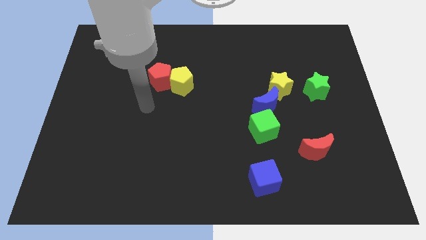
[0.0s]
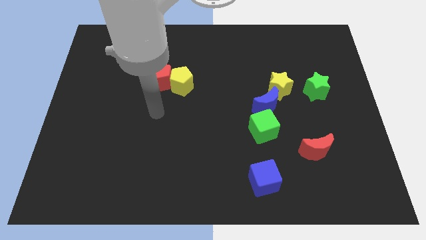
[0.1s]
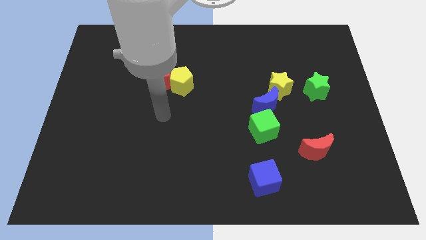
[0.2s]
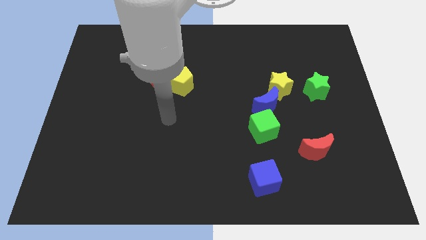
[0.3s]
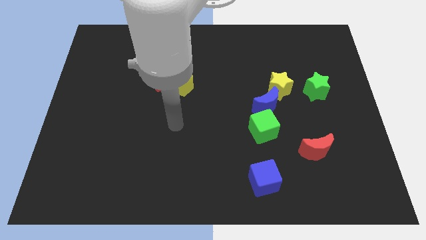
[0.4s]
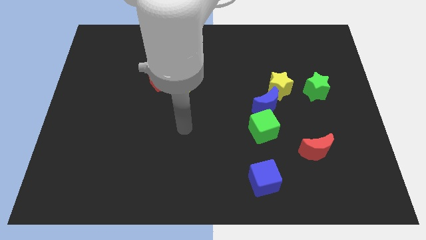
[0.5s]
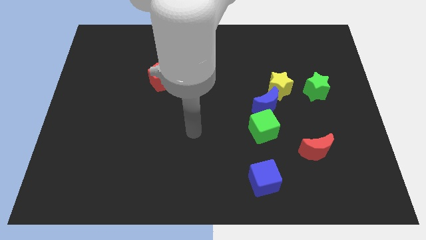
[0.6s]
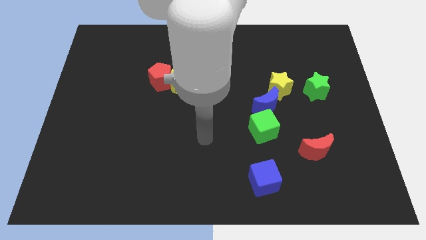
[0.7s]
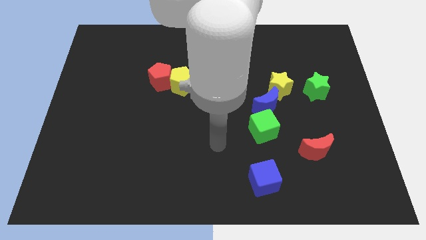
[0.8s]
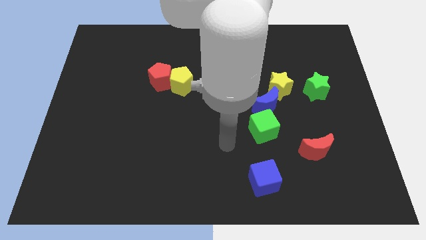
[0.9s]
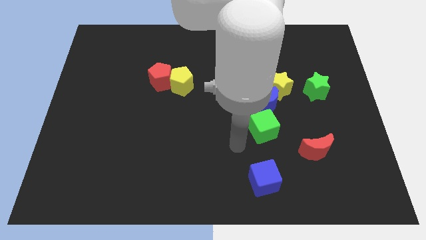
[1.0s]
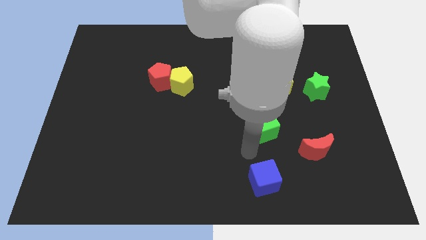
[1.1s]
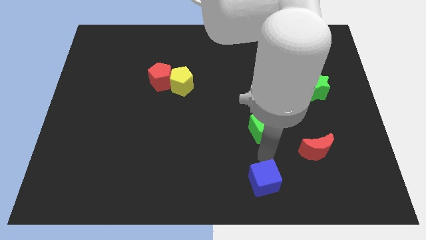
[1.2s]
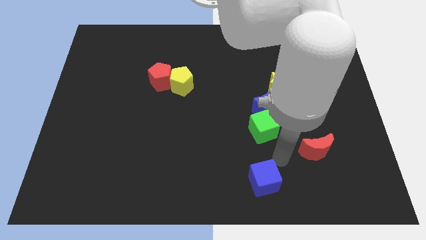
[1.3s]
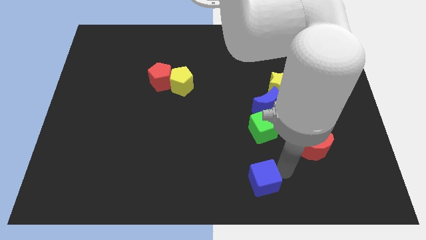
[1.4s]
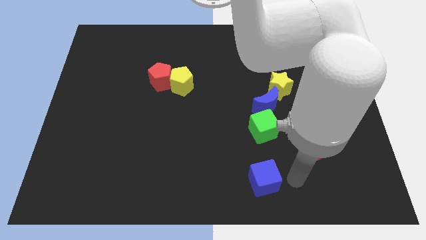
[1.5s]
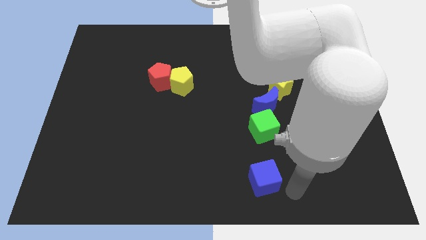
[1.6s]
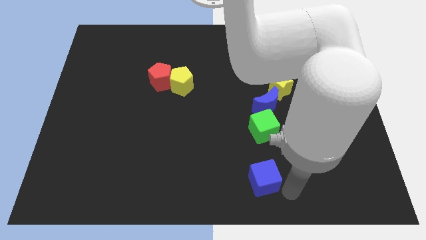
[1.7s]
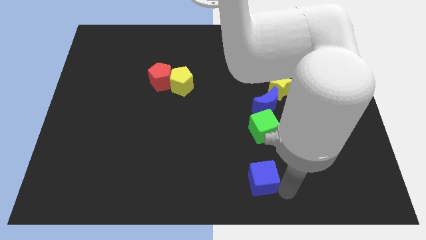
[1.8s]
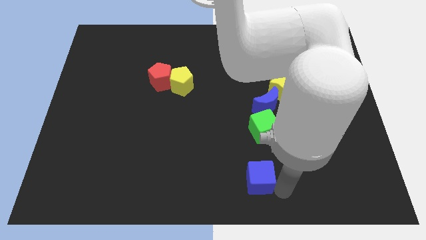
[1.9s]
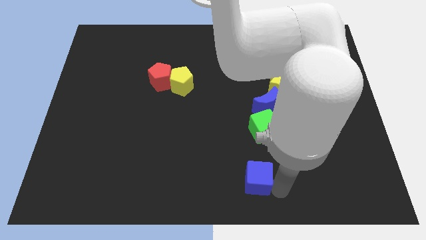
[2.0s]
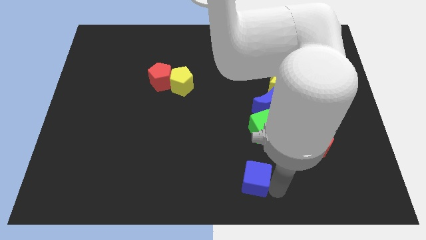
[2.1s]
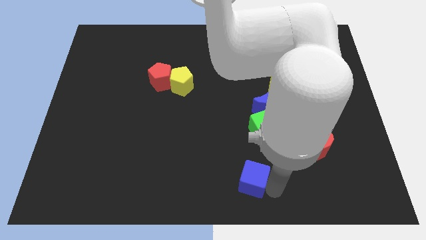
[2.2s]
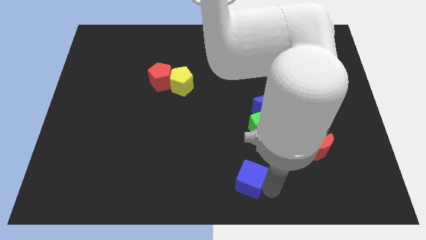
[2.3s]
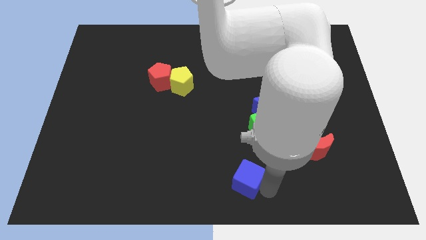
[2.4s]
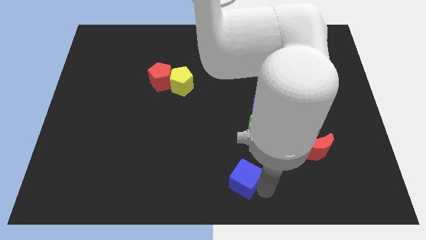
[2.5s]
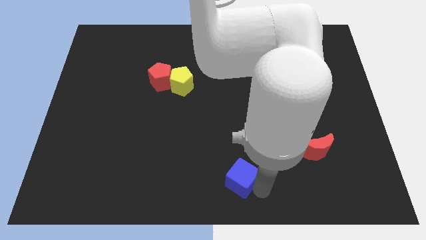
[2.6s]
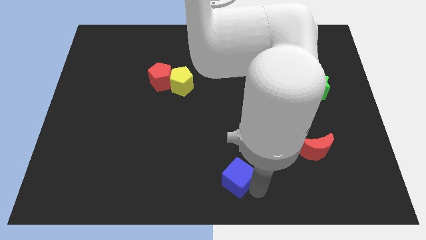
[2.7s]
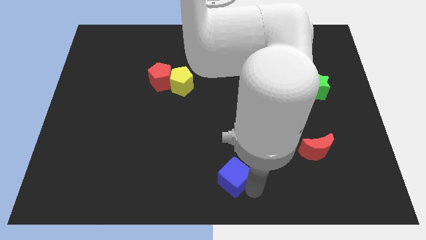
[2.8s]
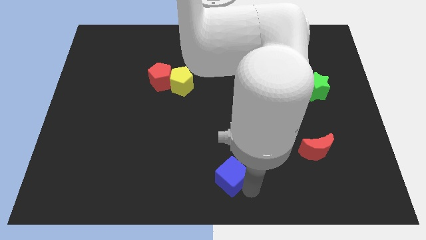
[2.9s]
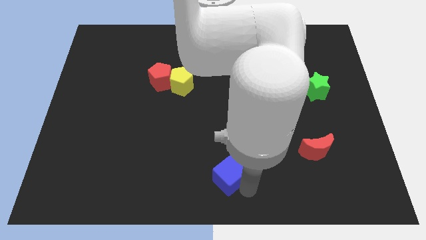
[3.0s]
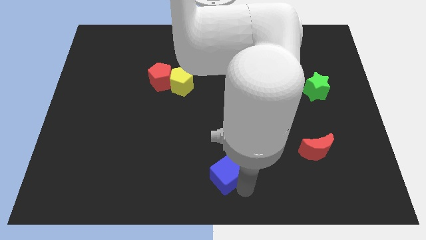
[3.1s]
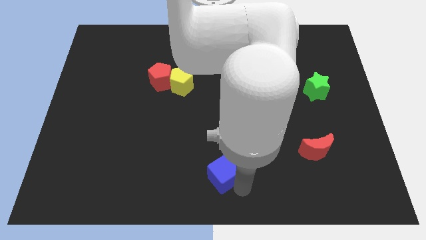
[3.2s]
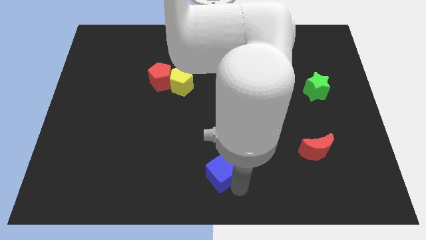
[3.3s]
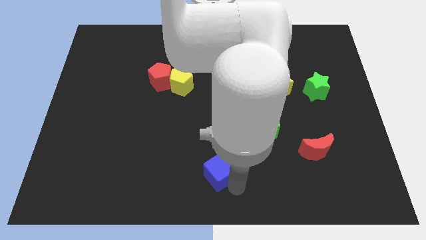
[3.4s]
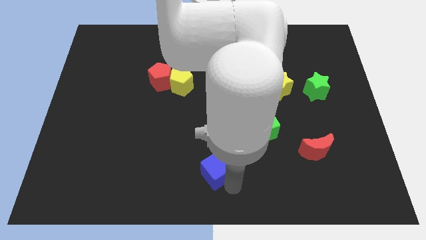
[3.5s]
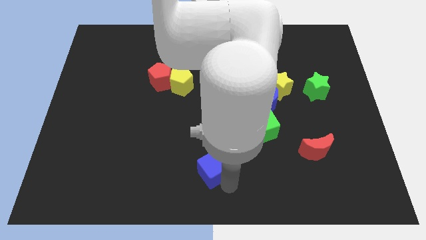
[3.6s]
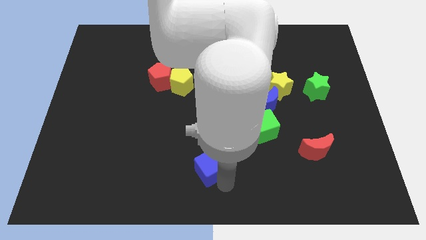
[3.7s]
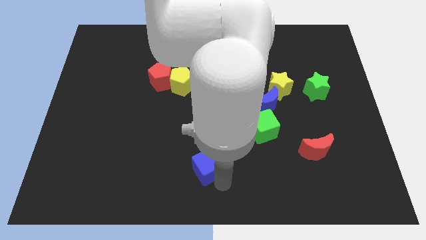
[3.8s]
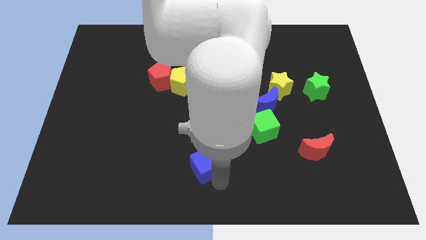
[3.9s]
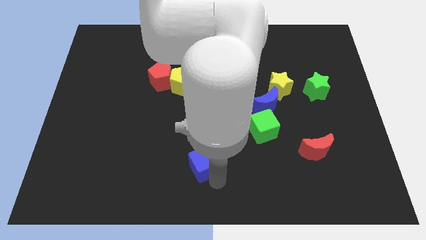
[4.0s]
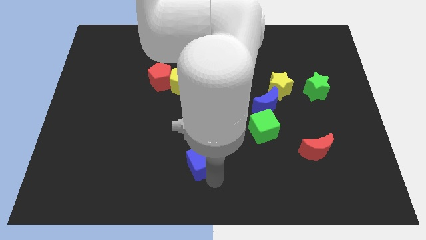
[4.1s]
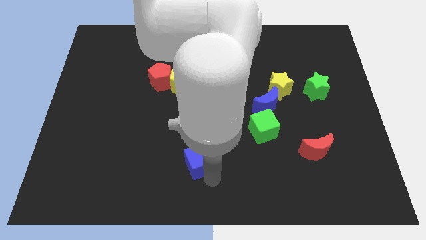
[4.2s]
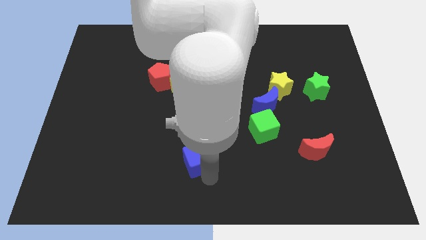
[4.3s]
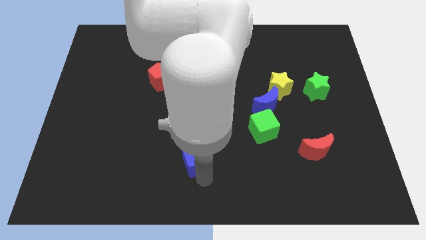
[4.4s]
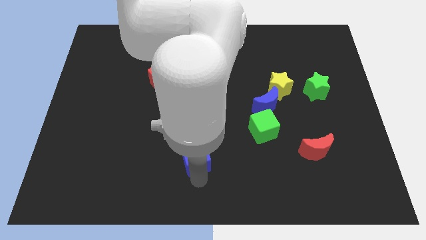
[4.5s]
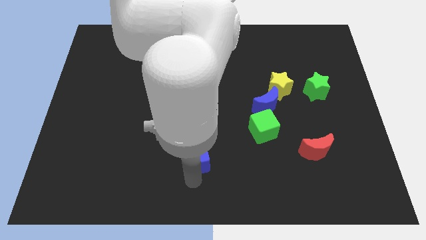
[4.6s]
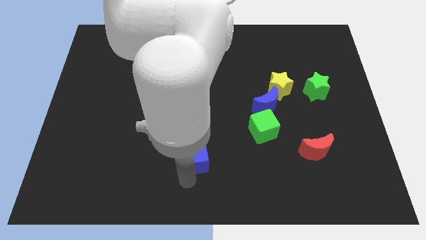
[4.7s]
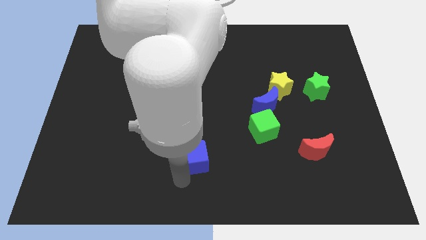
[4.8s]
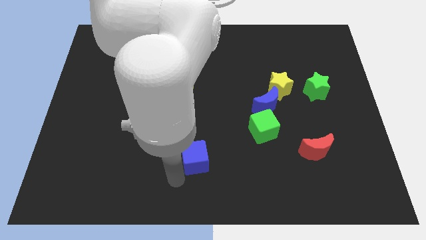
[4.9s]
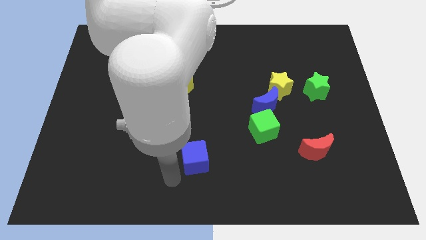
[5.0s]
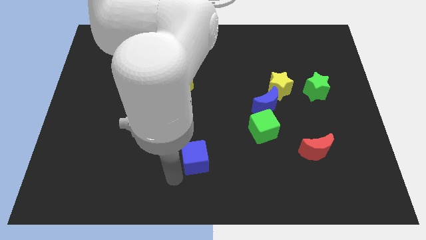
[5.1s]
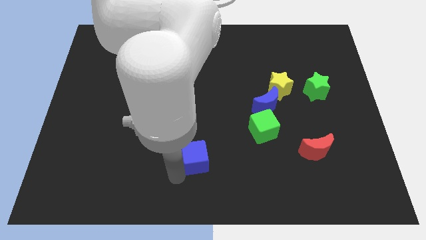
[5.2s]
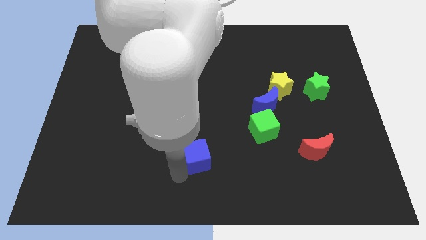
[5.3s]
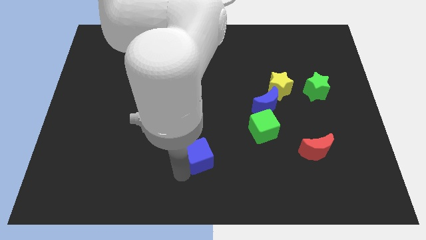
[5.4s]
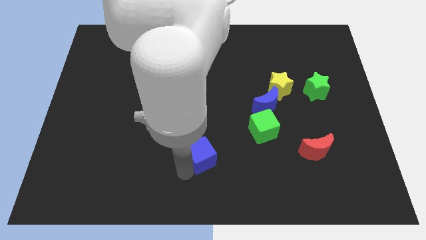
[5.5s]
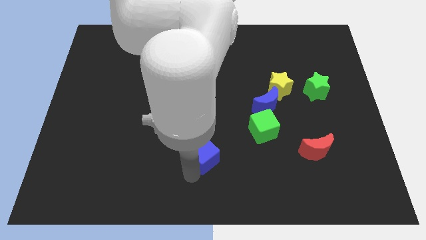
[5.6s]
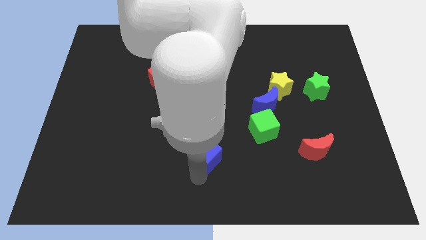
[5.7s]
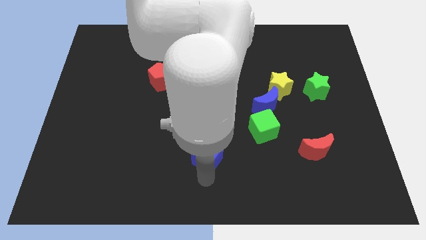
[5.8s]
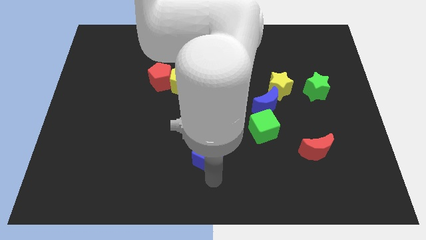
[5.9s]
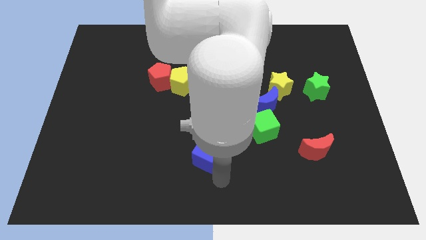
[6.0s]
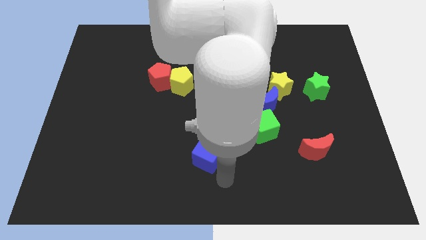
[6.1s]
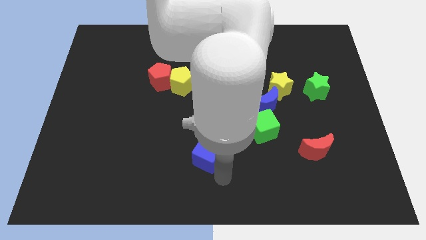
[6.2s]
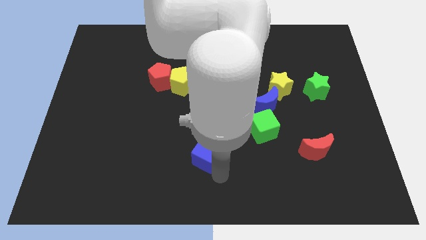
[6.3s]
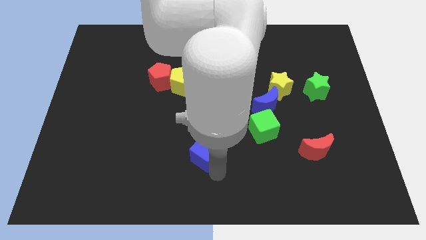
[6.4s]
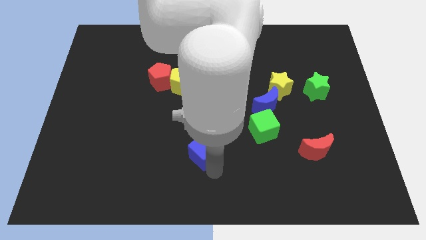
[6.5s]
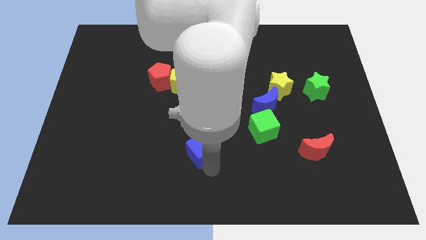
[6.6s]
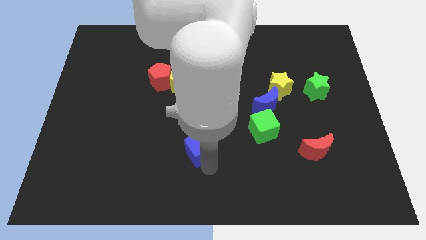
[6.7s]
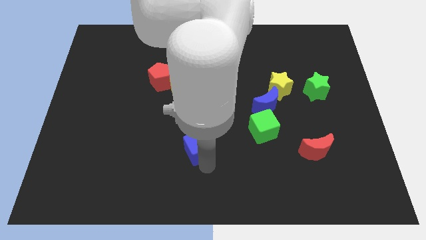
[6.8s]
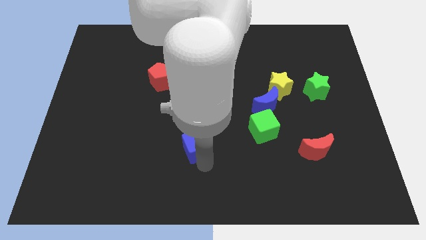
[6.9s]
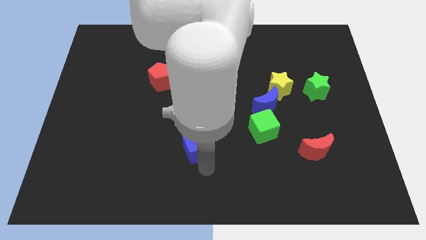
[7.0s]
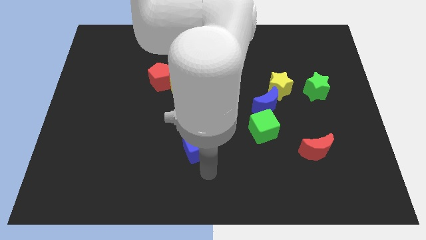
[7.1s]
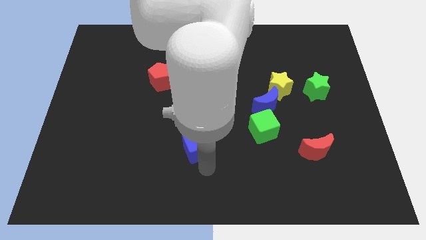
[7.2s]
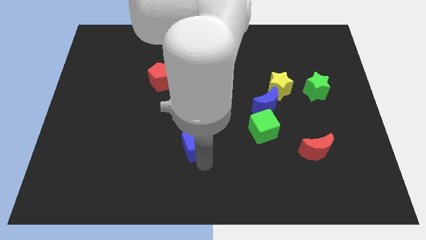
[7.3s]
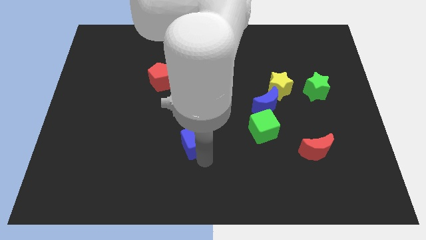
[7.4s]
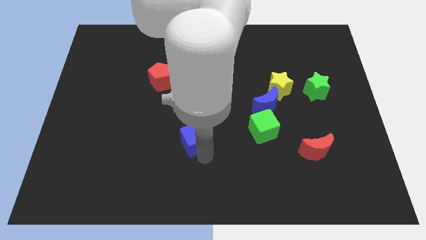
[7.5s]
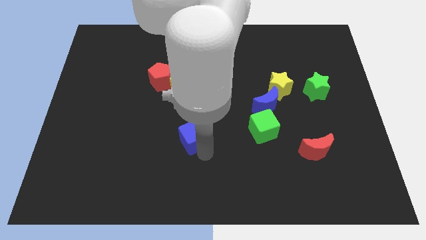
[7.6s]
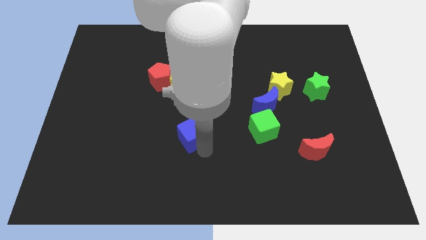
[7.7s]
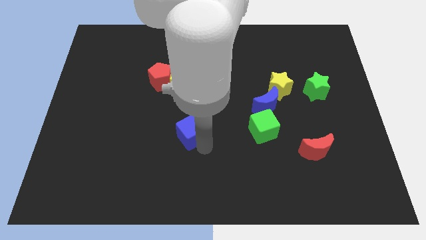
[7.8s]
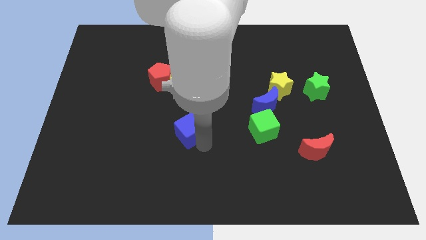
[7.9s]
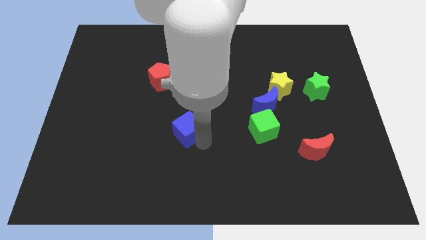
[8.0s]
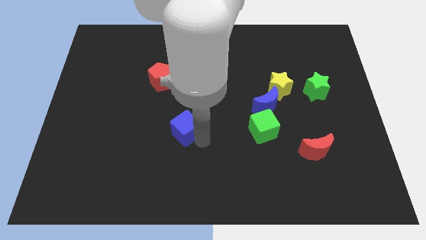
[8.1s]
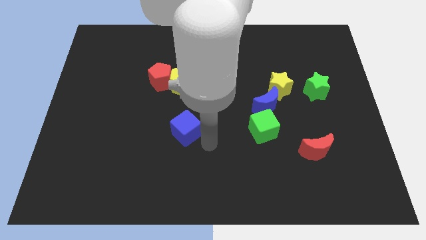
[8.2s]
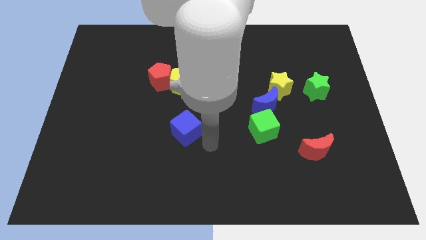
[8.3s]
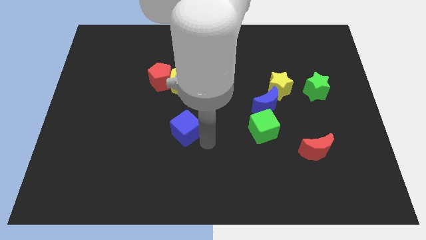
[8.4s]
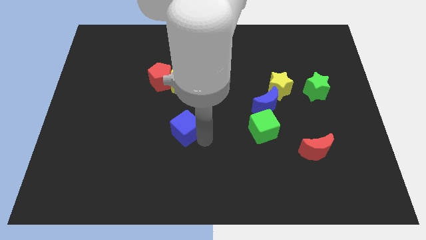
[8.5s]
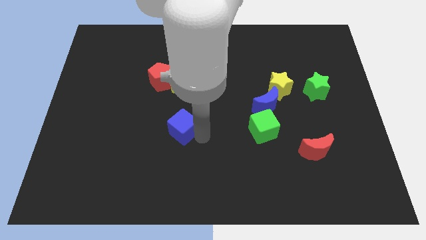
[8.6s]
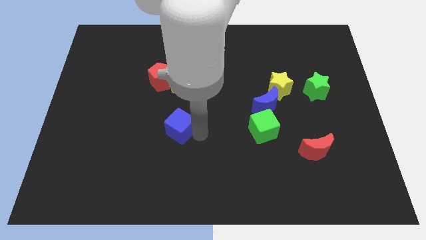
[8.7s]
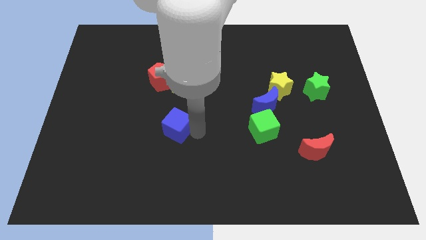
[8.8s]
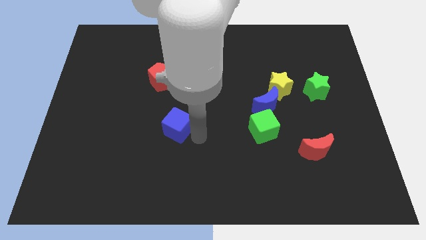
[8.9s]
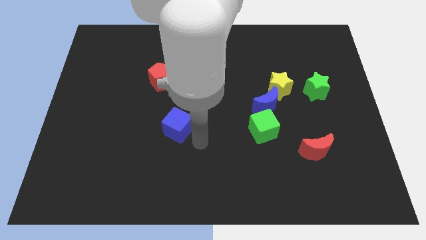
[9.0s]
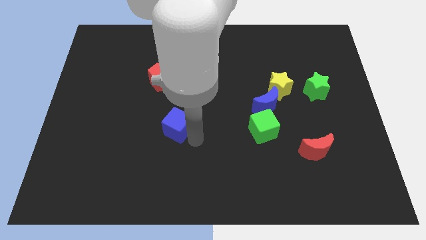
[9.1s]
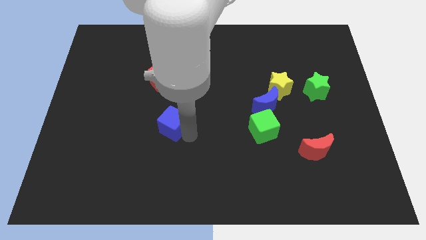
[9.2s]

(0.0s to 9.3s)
push the blue cube to the bottom of the red pentagon
